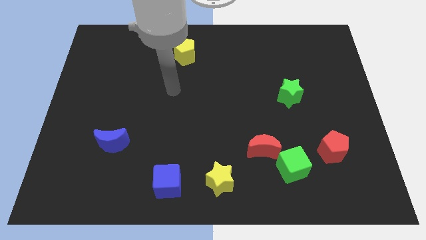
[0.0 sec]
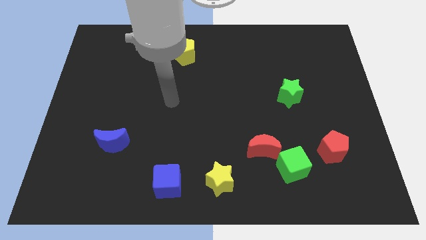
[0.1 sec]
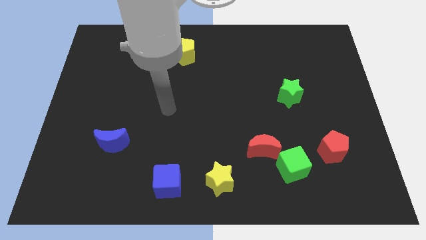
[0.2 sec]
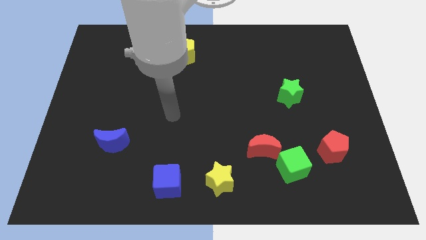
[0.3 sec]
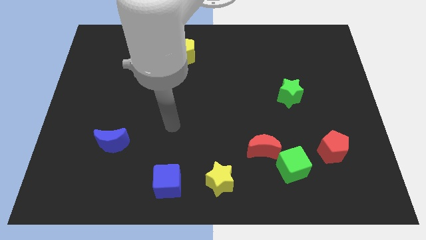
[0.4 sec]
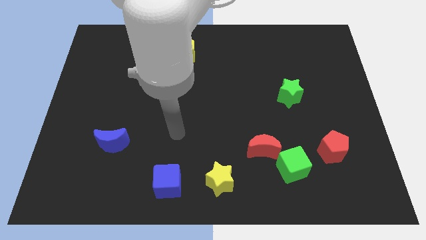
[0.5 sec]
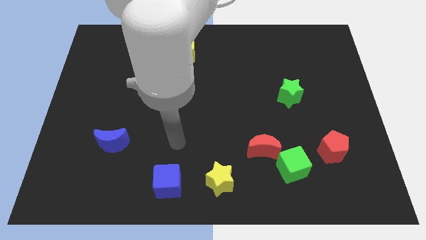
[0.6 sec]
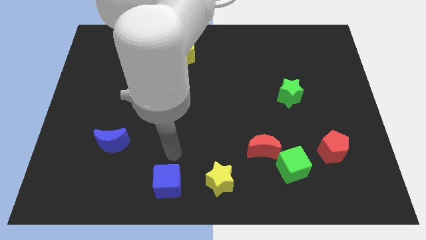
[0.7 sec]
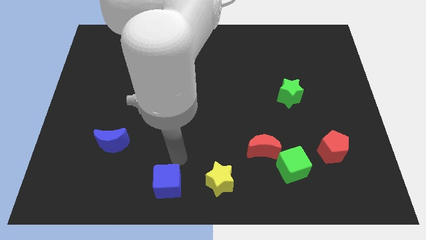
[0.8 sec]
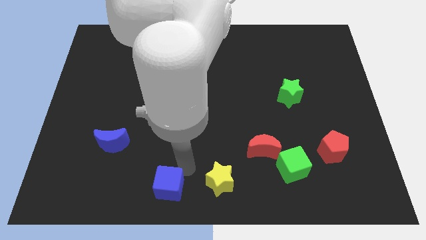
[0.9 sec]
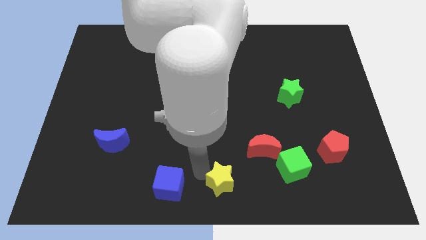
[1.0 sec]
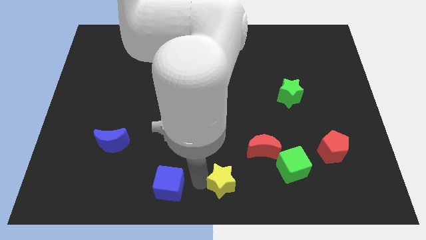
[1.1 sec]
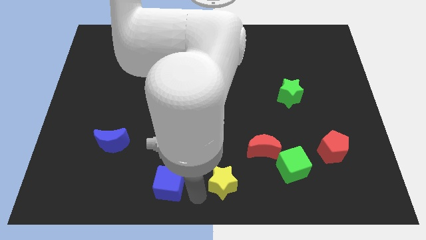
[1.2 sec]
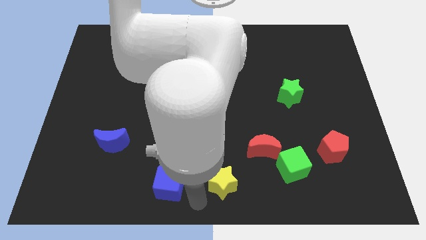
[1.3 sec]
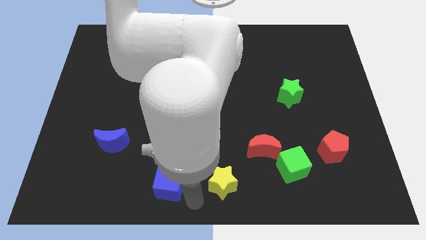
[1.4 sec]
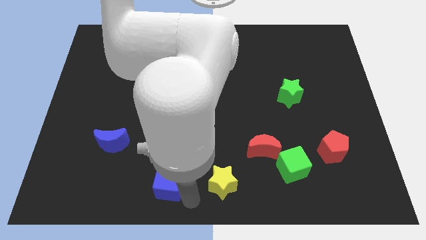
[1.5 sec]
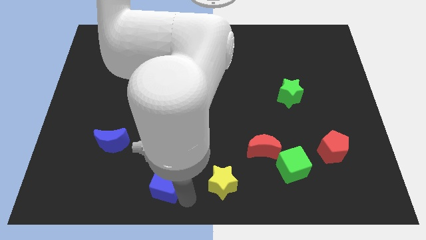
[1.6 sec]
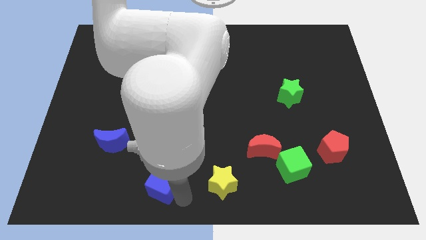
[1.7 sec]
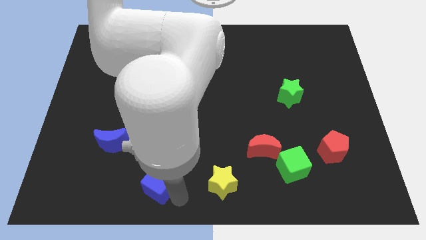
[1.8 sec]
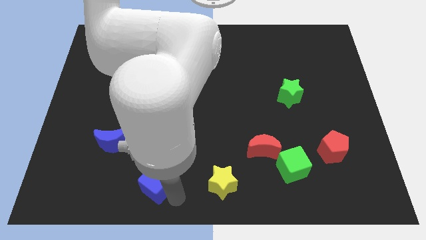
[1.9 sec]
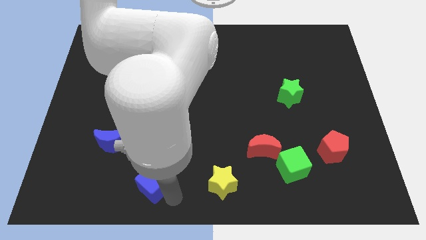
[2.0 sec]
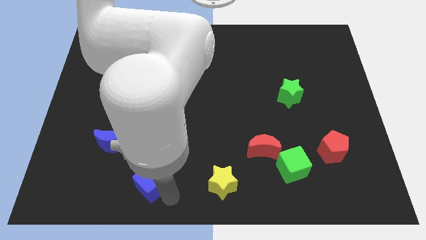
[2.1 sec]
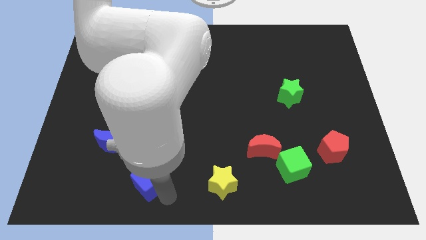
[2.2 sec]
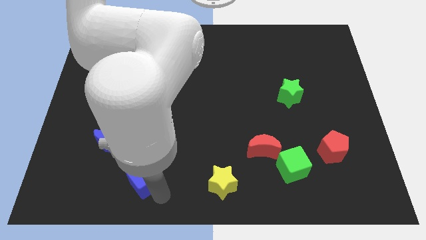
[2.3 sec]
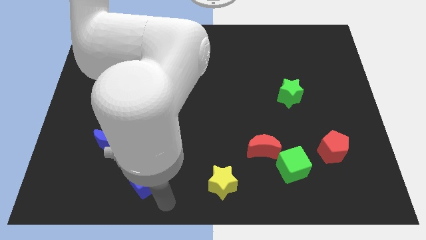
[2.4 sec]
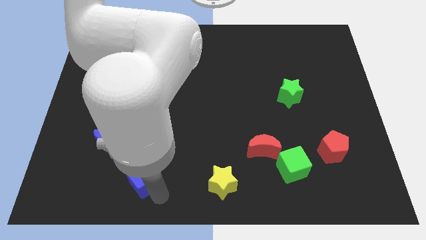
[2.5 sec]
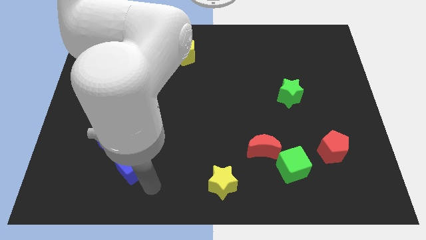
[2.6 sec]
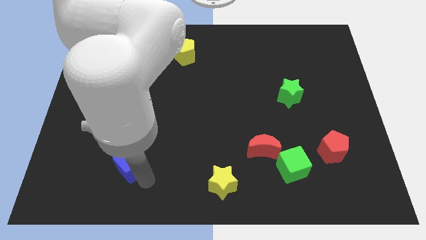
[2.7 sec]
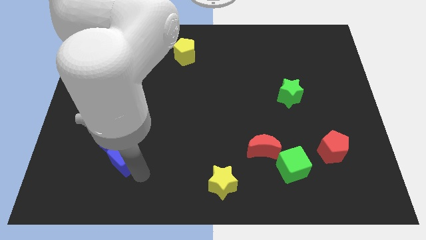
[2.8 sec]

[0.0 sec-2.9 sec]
put the blue cube to the blue moon

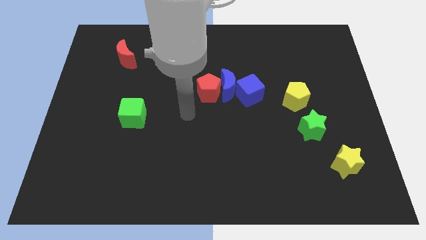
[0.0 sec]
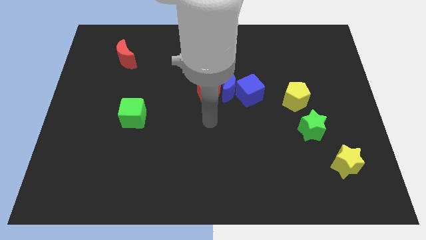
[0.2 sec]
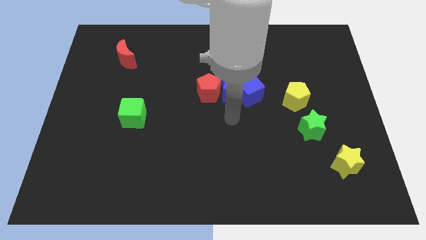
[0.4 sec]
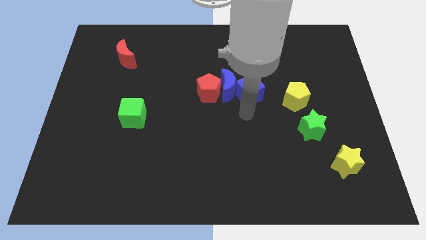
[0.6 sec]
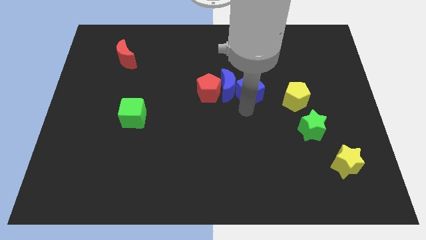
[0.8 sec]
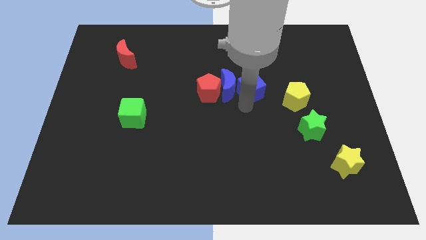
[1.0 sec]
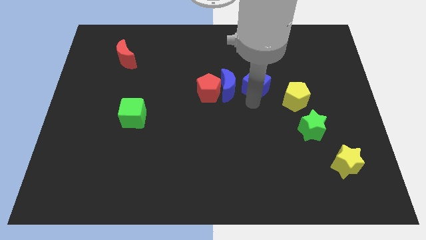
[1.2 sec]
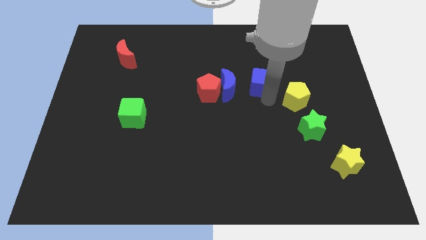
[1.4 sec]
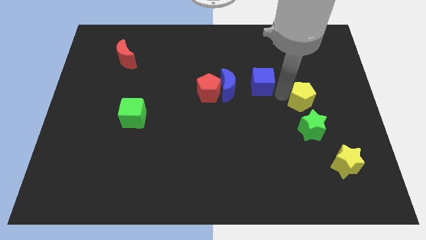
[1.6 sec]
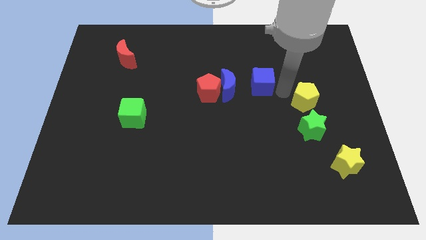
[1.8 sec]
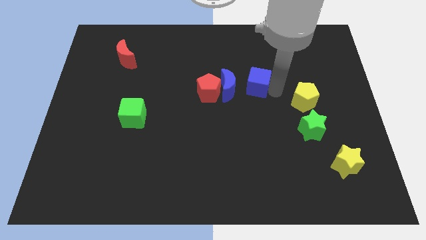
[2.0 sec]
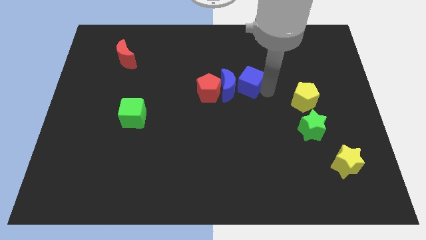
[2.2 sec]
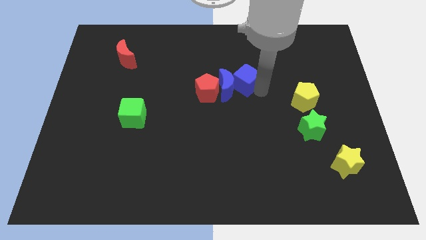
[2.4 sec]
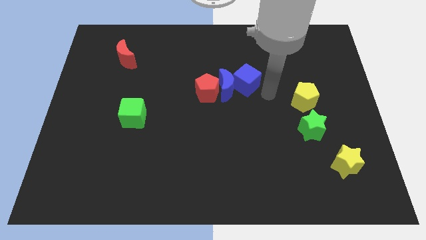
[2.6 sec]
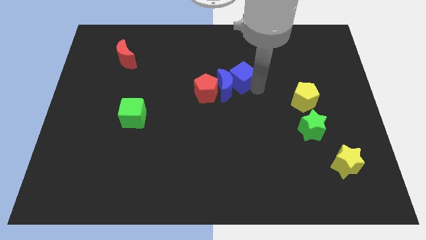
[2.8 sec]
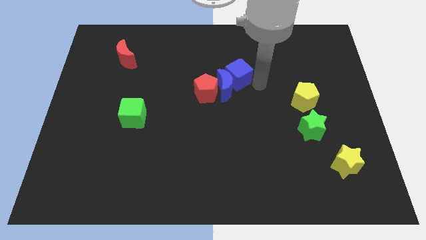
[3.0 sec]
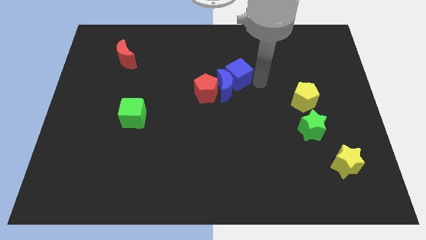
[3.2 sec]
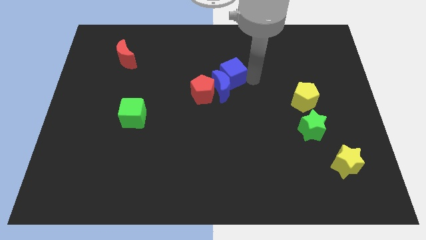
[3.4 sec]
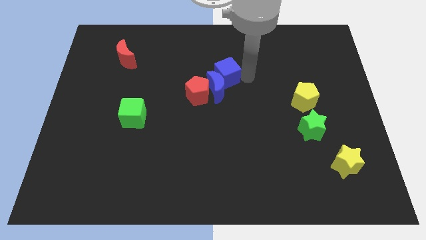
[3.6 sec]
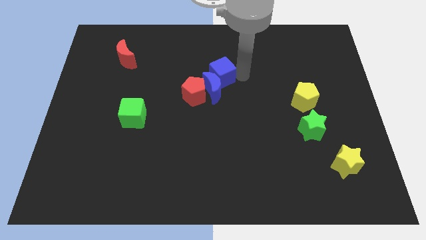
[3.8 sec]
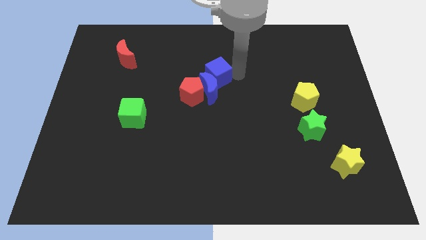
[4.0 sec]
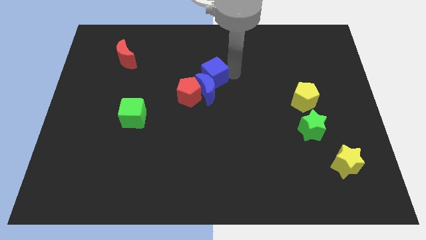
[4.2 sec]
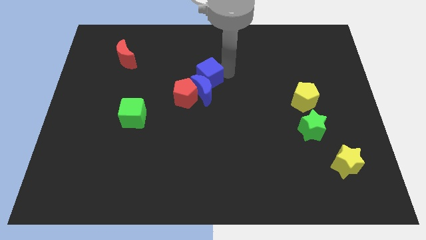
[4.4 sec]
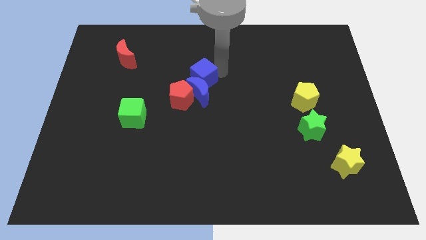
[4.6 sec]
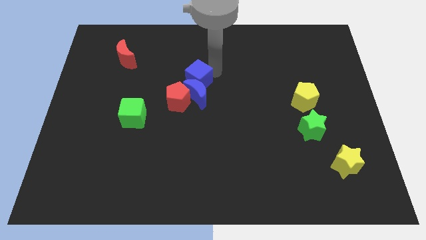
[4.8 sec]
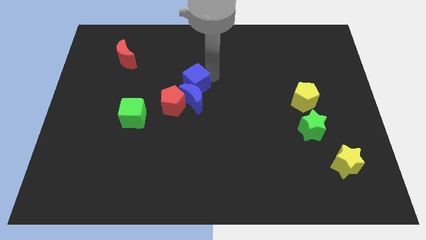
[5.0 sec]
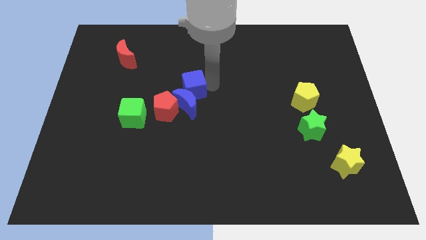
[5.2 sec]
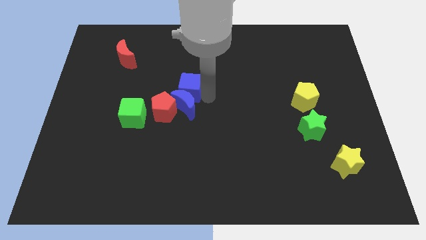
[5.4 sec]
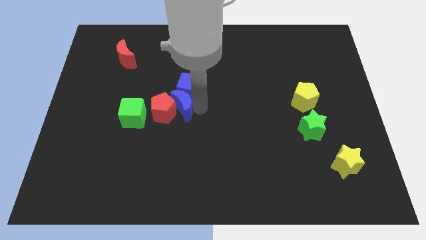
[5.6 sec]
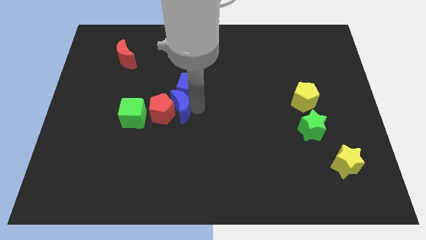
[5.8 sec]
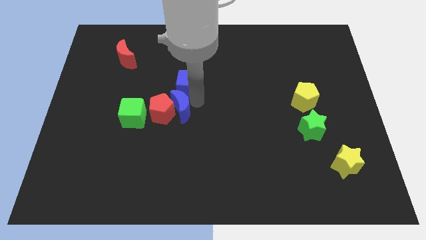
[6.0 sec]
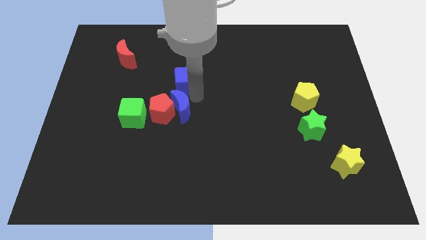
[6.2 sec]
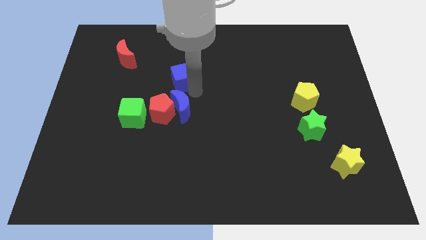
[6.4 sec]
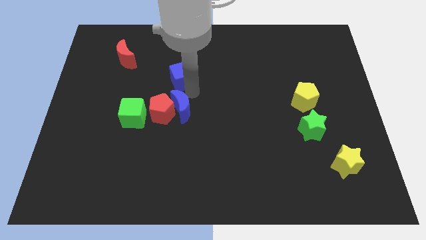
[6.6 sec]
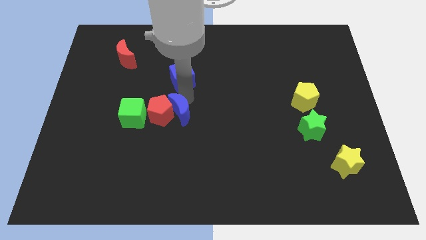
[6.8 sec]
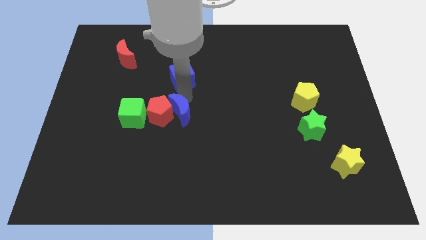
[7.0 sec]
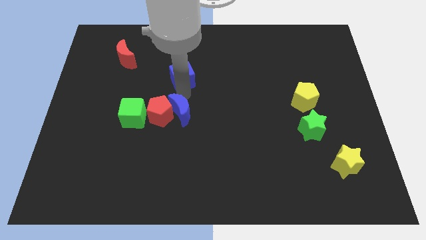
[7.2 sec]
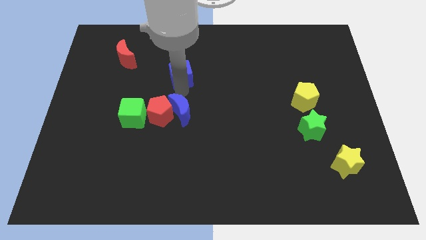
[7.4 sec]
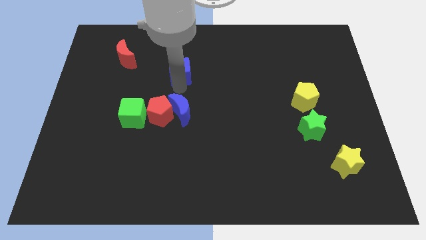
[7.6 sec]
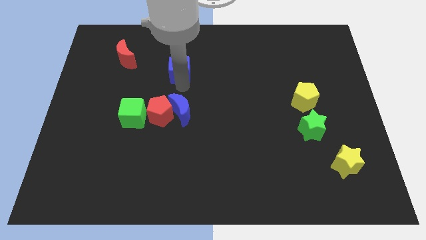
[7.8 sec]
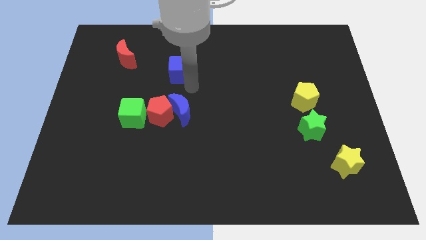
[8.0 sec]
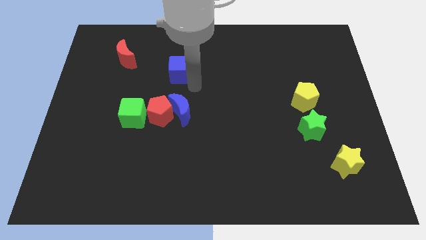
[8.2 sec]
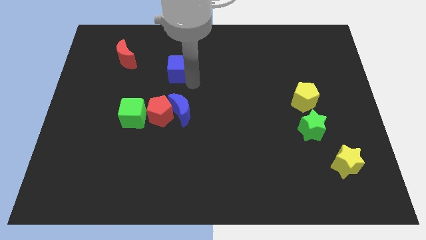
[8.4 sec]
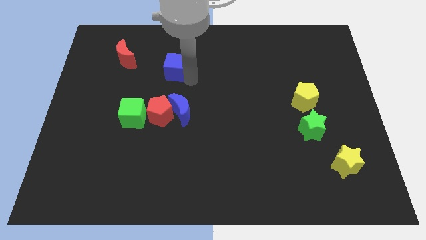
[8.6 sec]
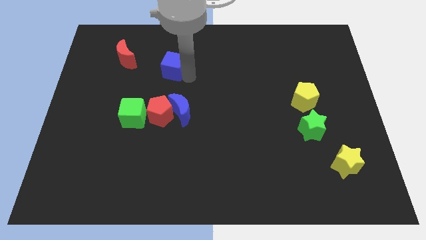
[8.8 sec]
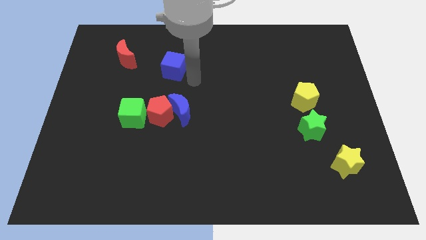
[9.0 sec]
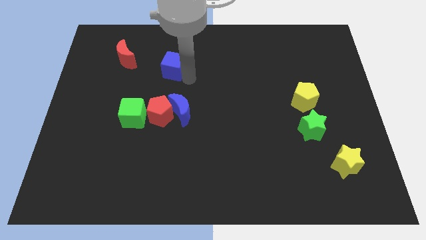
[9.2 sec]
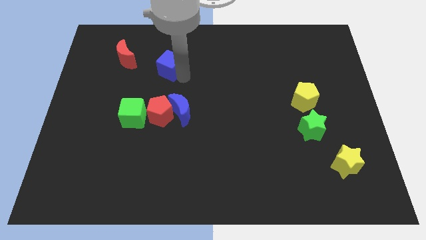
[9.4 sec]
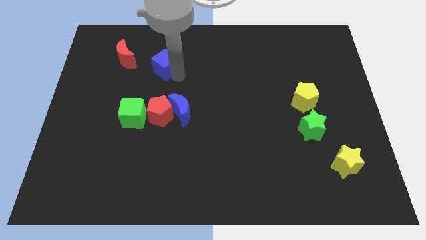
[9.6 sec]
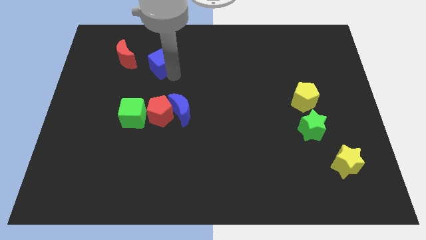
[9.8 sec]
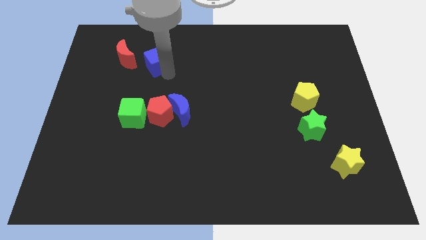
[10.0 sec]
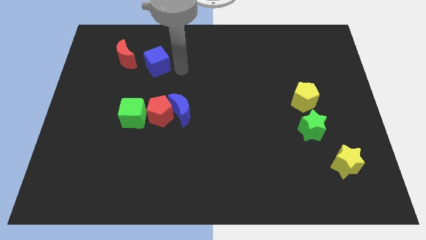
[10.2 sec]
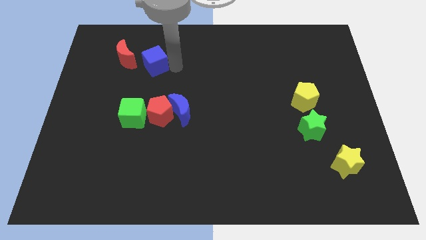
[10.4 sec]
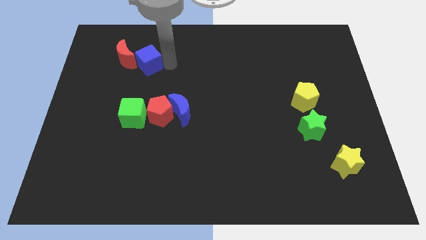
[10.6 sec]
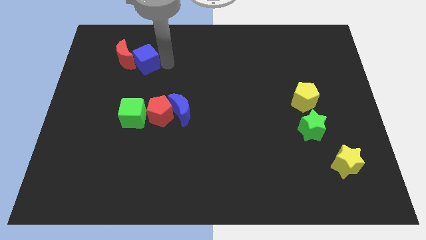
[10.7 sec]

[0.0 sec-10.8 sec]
put the blue cube towards the red moon
